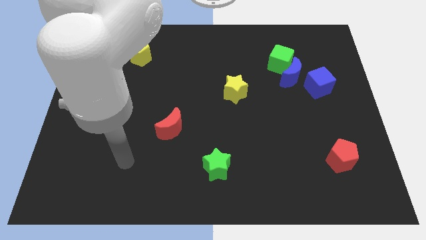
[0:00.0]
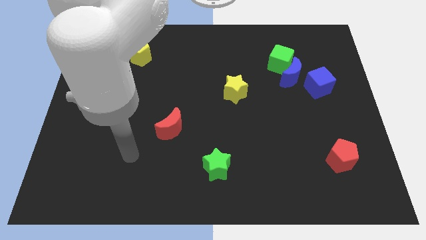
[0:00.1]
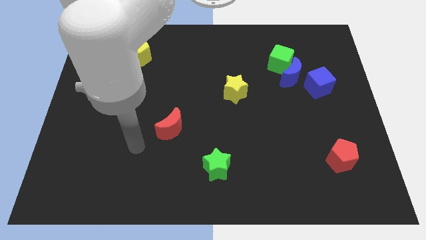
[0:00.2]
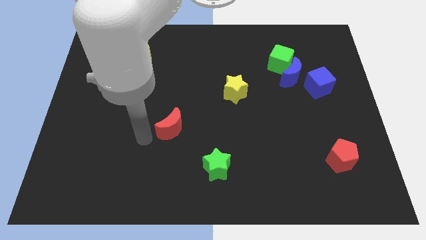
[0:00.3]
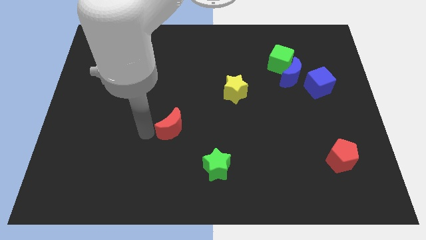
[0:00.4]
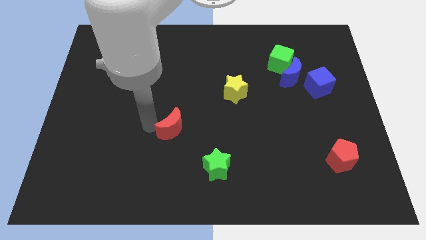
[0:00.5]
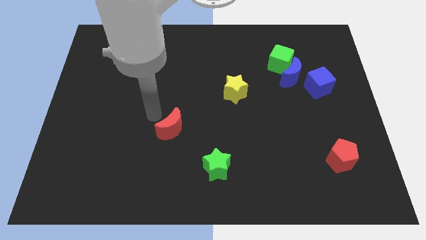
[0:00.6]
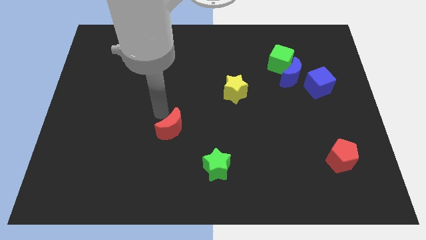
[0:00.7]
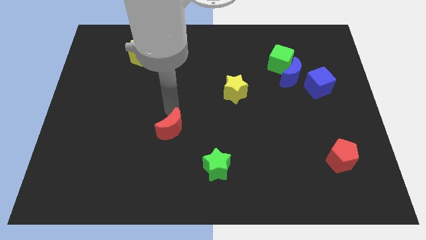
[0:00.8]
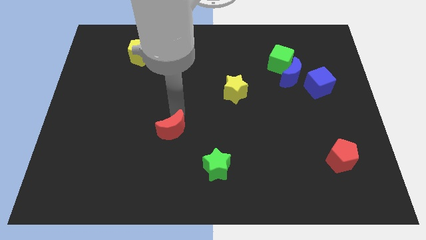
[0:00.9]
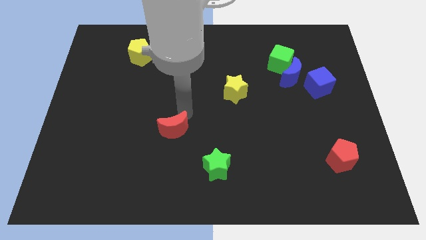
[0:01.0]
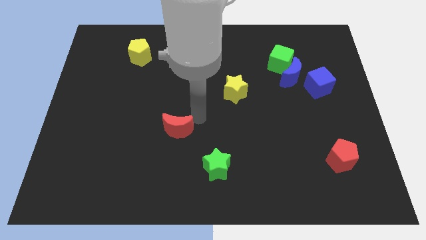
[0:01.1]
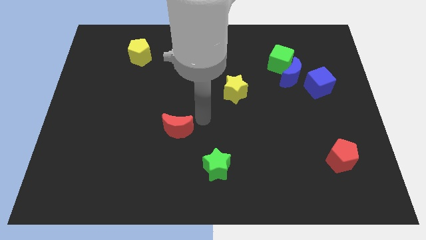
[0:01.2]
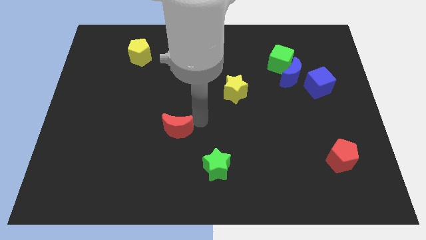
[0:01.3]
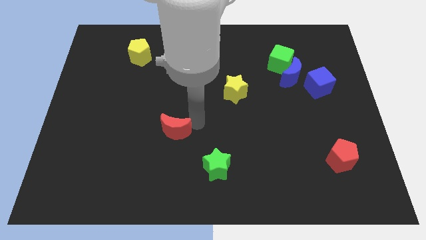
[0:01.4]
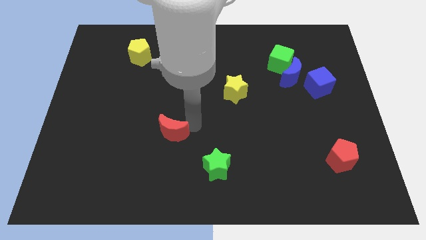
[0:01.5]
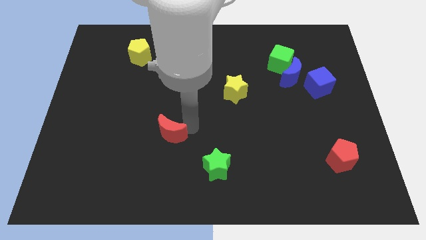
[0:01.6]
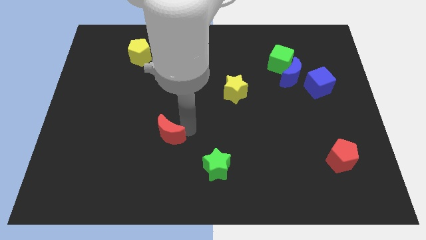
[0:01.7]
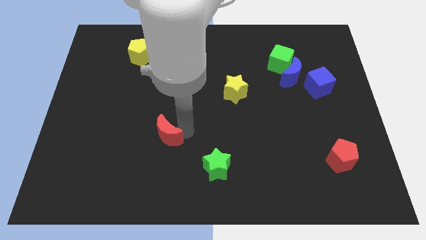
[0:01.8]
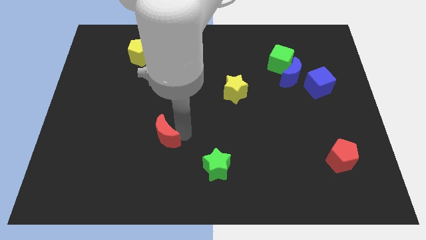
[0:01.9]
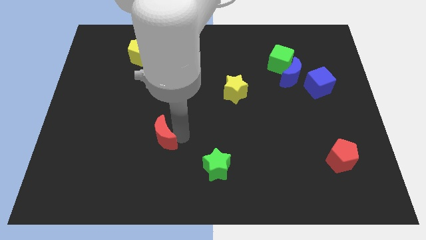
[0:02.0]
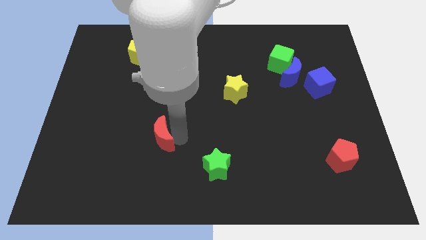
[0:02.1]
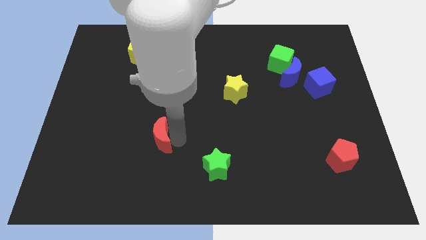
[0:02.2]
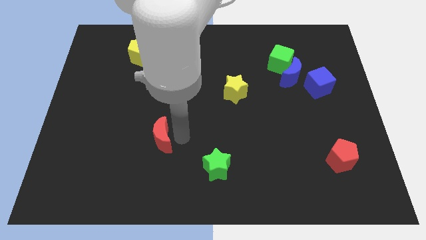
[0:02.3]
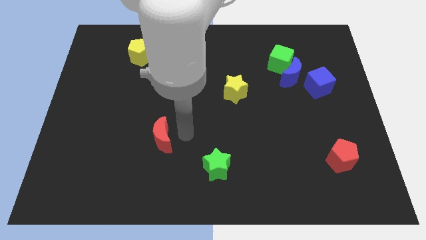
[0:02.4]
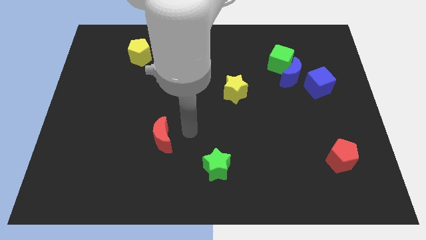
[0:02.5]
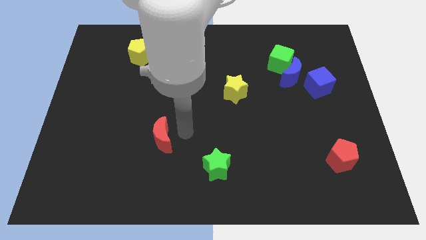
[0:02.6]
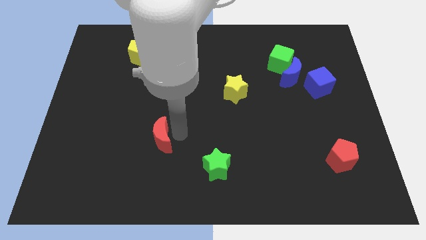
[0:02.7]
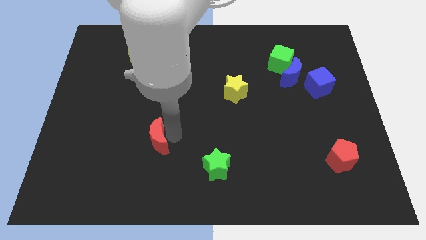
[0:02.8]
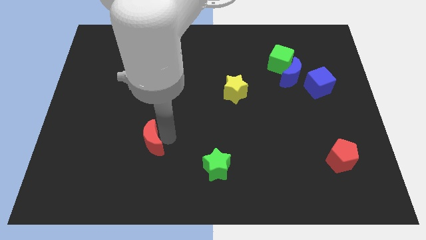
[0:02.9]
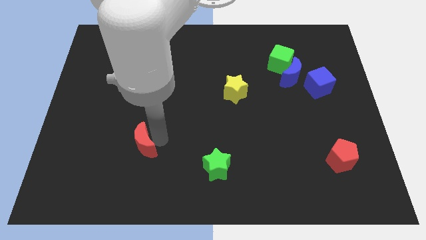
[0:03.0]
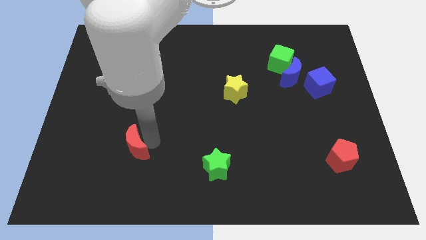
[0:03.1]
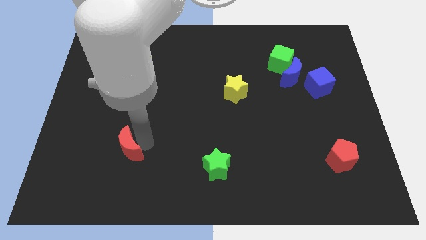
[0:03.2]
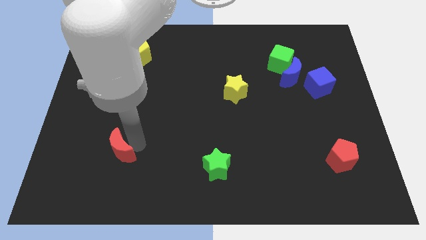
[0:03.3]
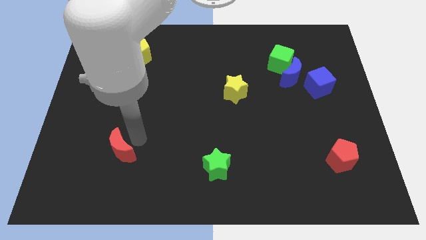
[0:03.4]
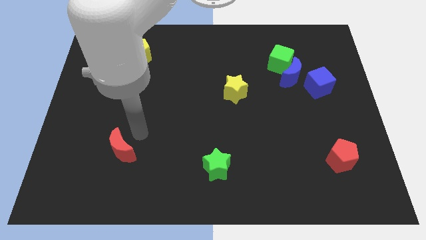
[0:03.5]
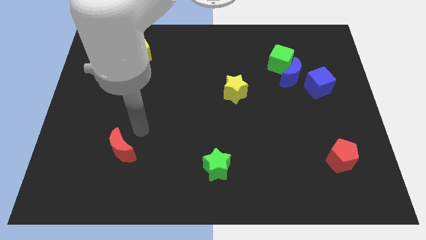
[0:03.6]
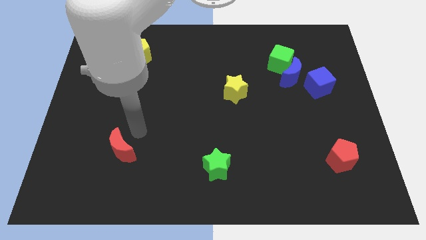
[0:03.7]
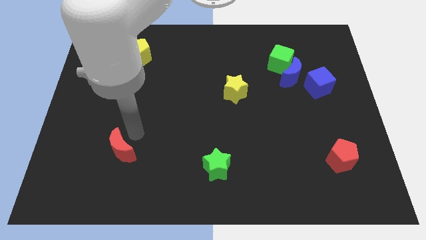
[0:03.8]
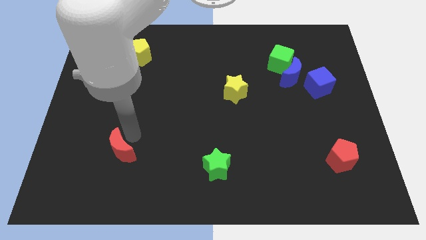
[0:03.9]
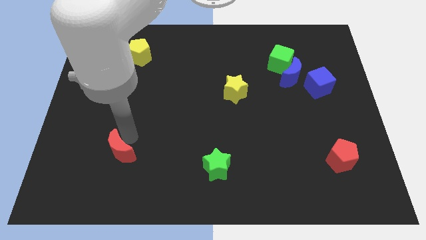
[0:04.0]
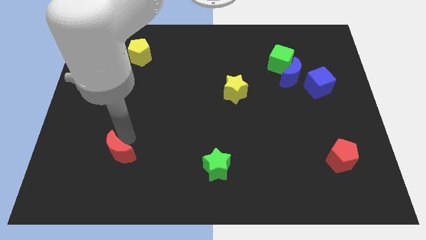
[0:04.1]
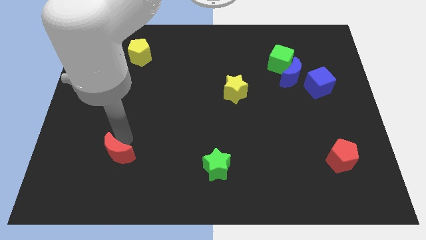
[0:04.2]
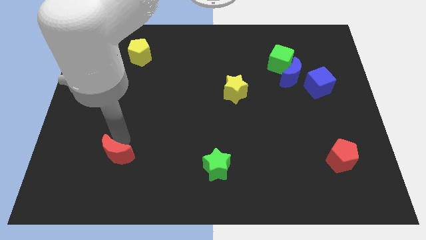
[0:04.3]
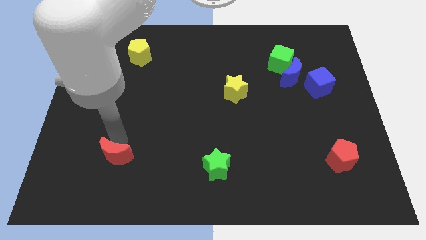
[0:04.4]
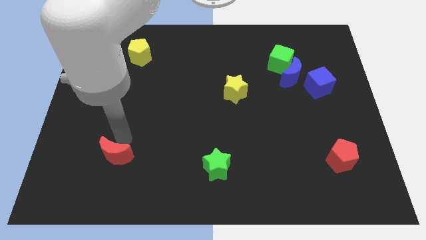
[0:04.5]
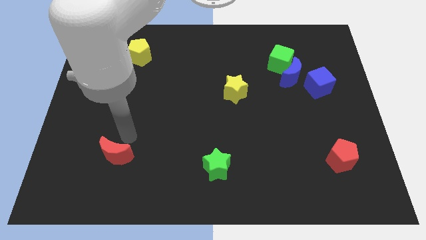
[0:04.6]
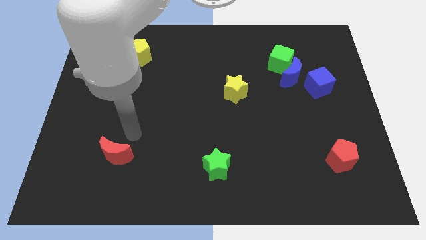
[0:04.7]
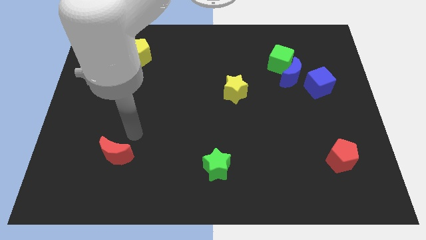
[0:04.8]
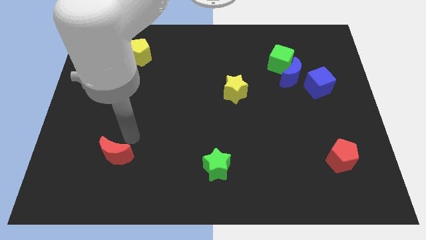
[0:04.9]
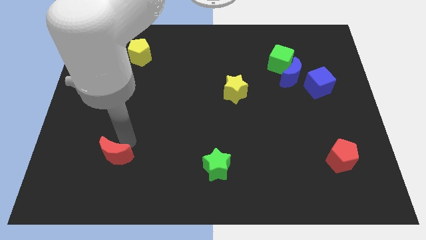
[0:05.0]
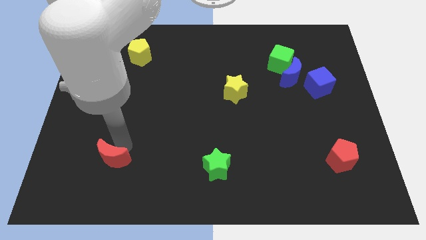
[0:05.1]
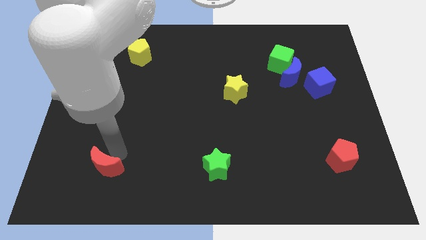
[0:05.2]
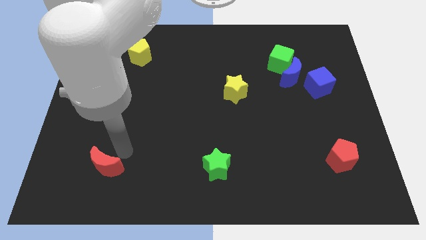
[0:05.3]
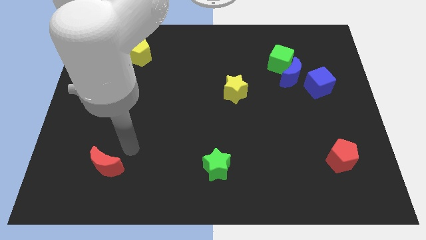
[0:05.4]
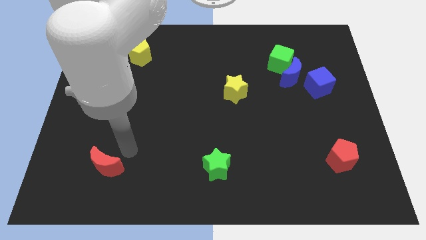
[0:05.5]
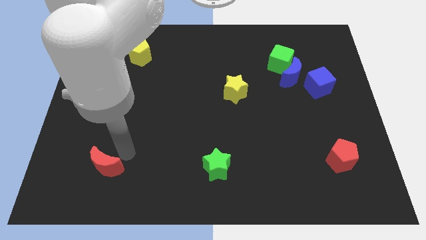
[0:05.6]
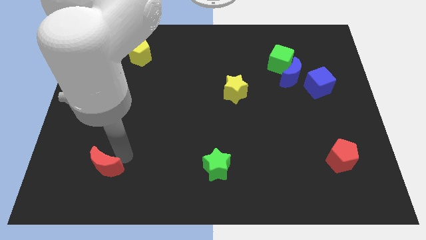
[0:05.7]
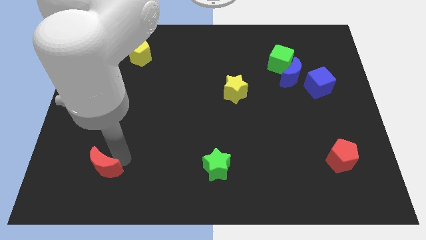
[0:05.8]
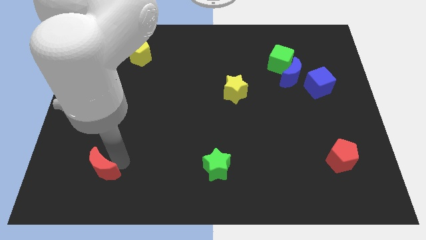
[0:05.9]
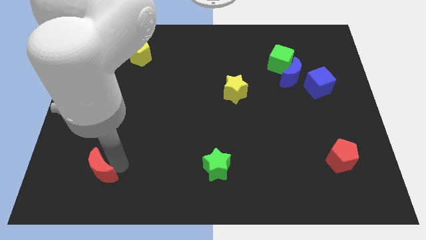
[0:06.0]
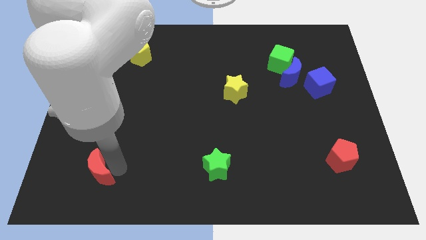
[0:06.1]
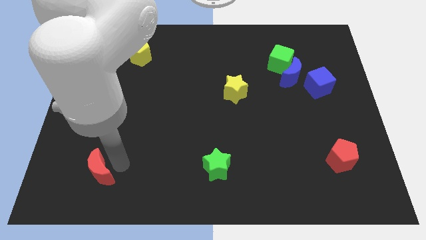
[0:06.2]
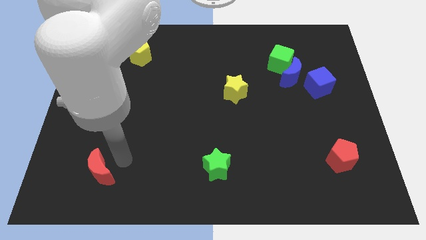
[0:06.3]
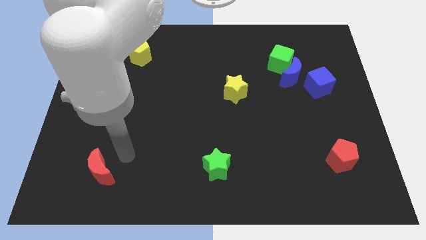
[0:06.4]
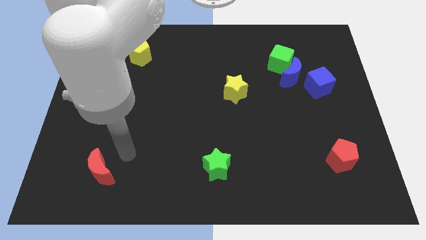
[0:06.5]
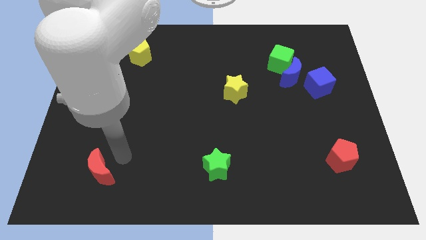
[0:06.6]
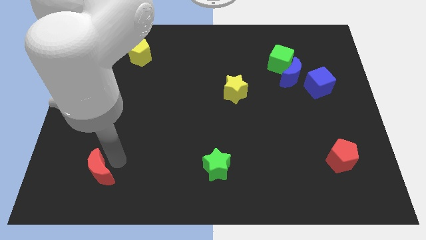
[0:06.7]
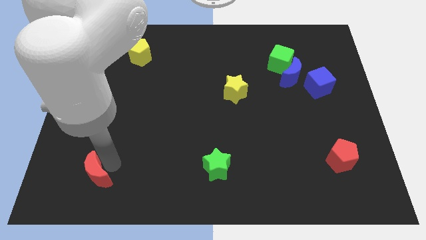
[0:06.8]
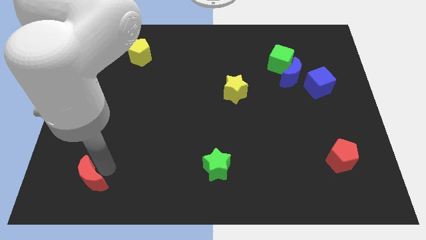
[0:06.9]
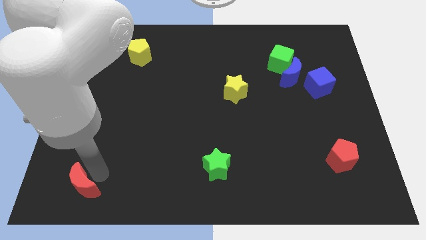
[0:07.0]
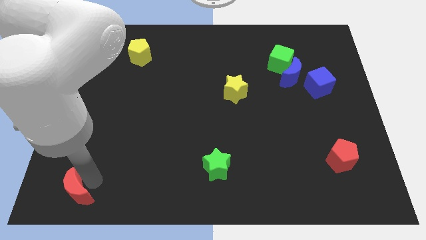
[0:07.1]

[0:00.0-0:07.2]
put the red moon to the bottom left
